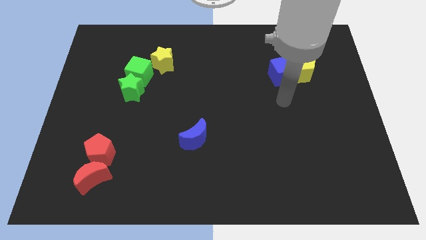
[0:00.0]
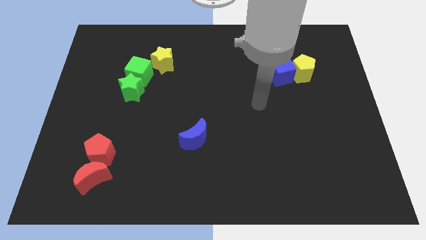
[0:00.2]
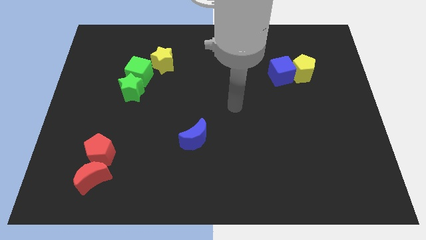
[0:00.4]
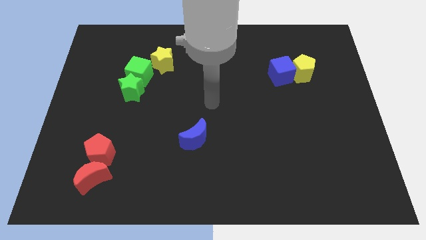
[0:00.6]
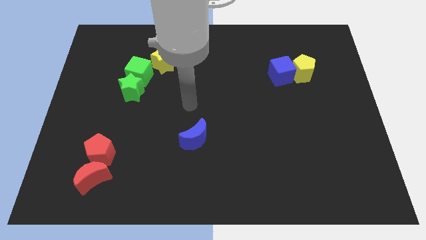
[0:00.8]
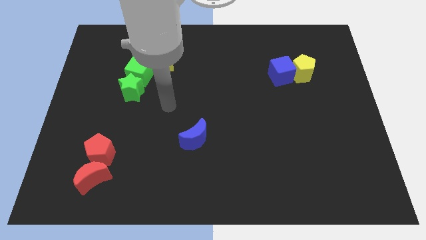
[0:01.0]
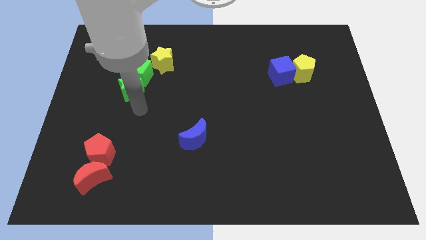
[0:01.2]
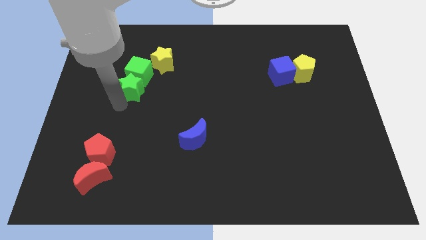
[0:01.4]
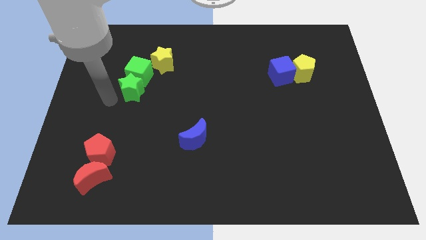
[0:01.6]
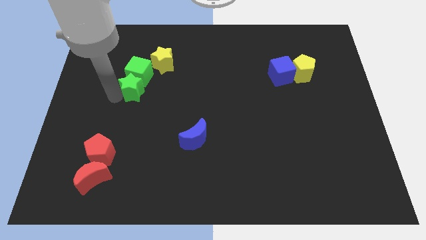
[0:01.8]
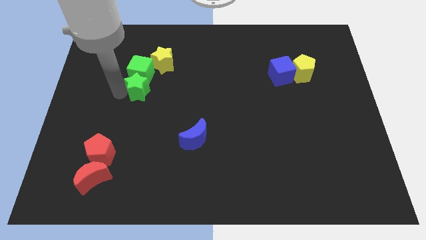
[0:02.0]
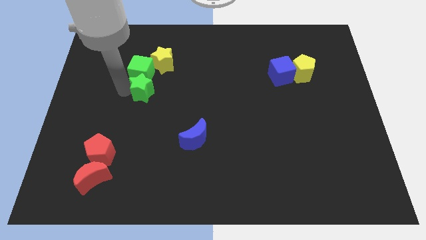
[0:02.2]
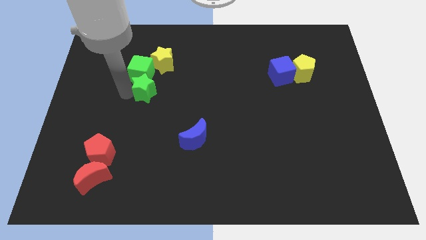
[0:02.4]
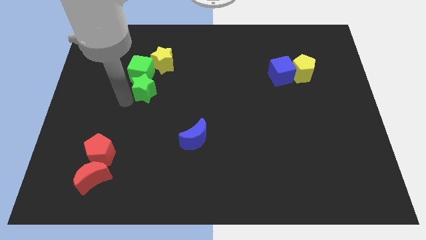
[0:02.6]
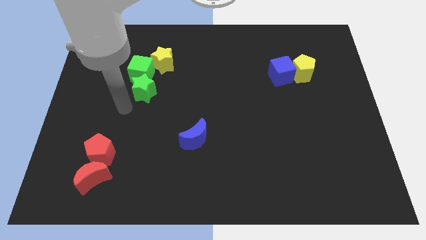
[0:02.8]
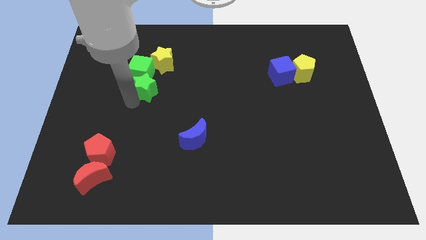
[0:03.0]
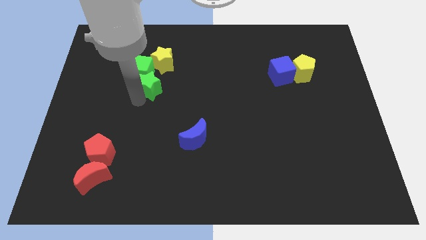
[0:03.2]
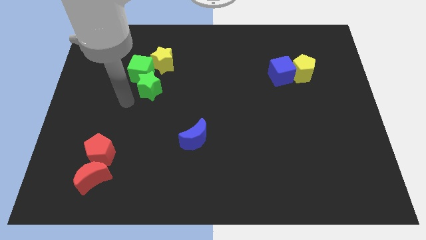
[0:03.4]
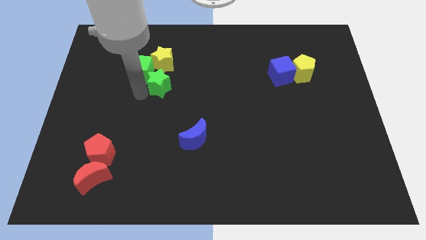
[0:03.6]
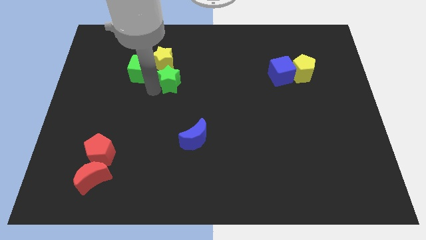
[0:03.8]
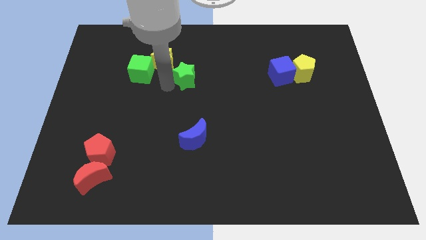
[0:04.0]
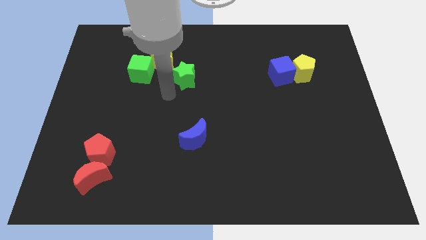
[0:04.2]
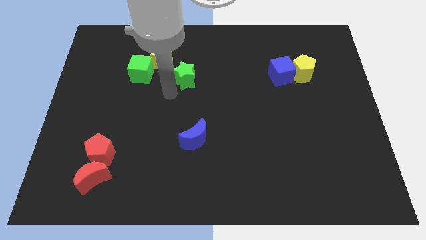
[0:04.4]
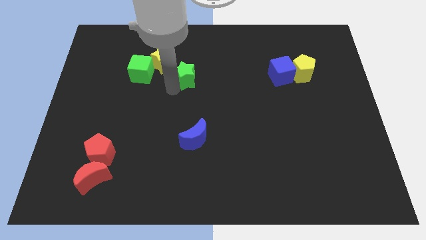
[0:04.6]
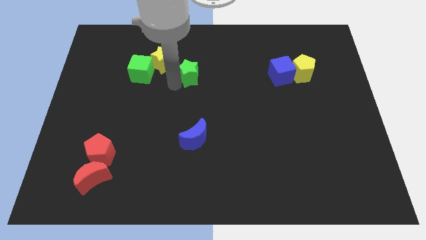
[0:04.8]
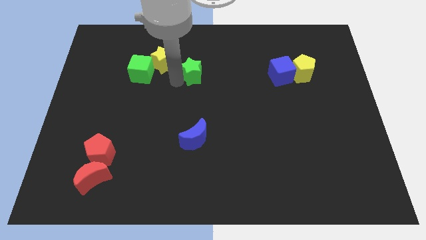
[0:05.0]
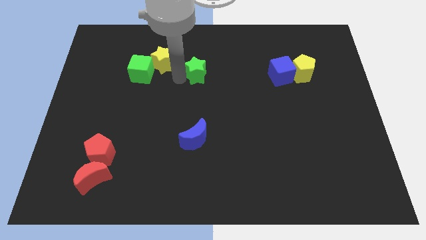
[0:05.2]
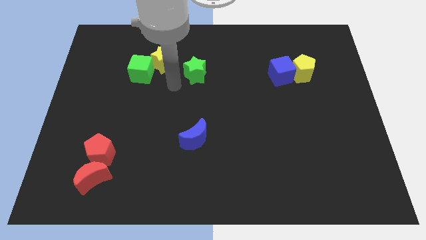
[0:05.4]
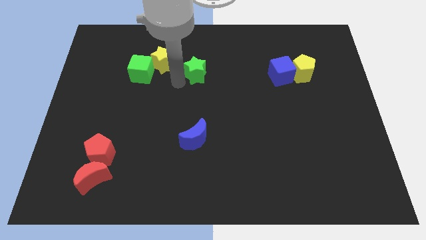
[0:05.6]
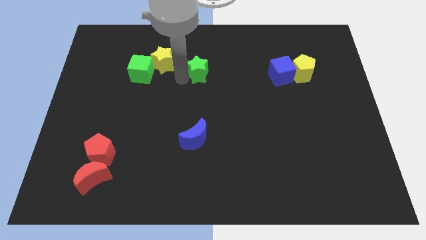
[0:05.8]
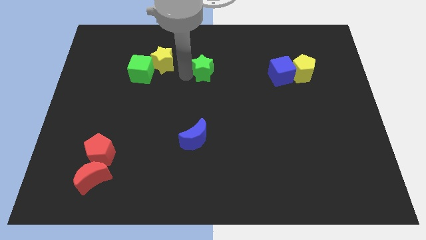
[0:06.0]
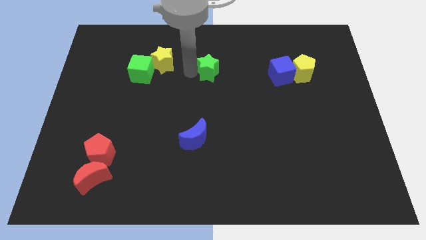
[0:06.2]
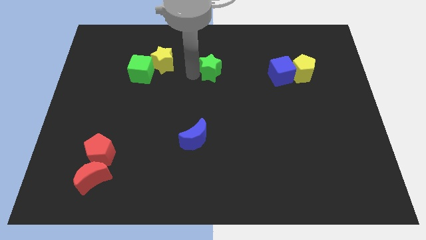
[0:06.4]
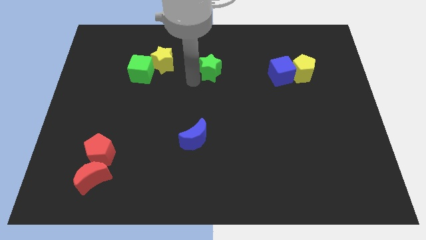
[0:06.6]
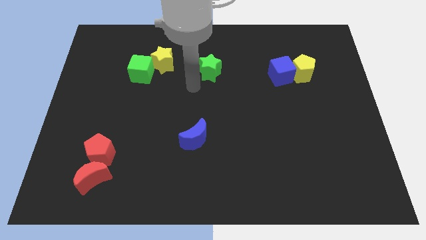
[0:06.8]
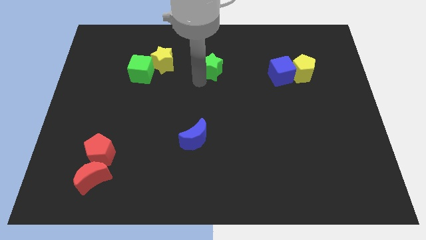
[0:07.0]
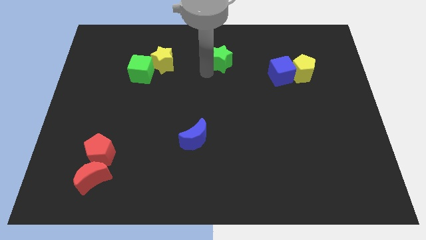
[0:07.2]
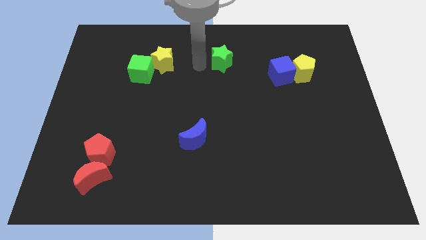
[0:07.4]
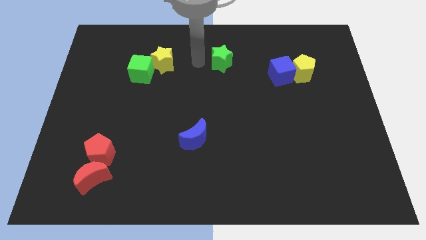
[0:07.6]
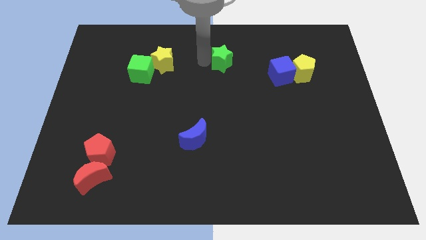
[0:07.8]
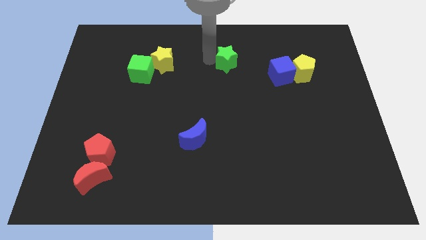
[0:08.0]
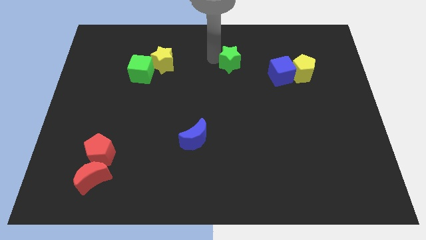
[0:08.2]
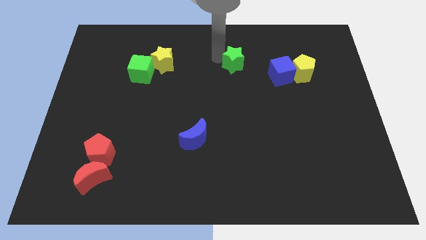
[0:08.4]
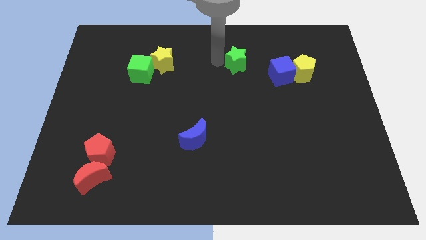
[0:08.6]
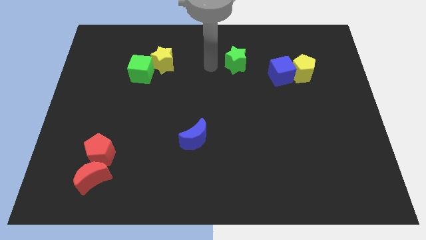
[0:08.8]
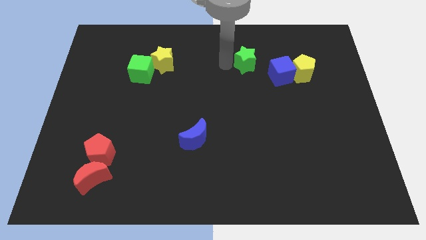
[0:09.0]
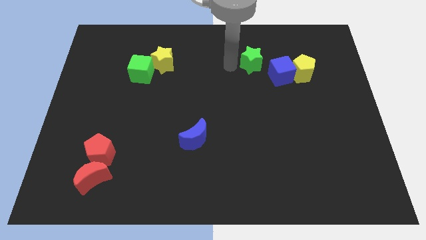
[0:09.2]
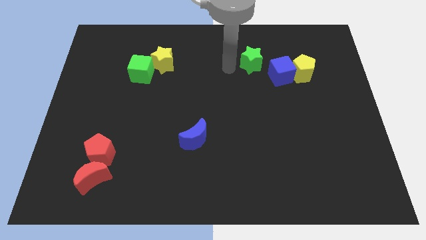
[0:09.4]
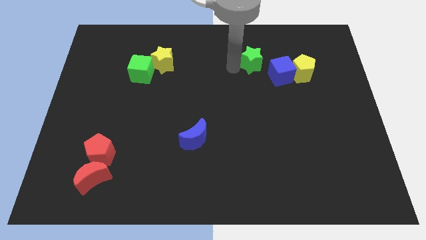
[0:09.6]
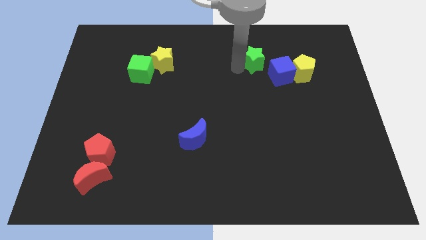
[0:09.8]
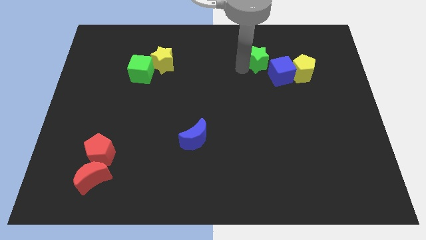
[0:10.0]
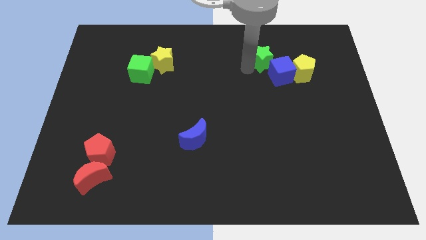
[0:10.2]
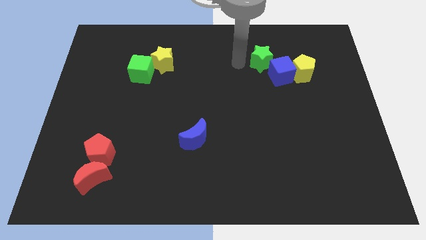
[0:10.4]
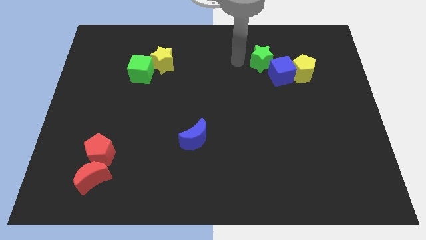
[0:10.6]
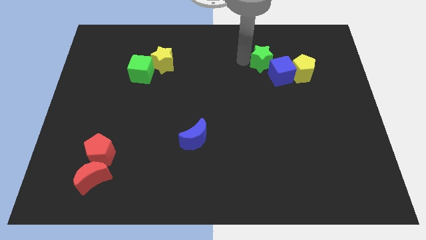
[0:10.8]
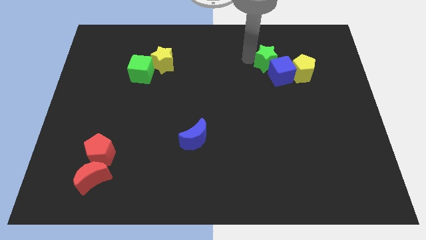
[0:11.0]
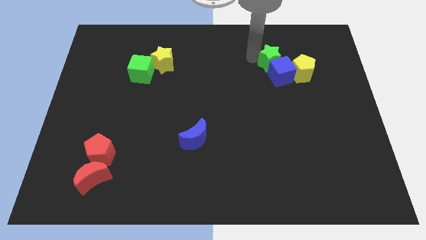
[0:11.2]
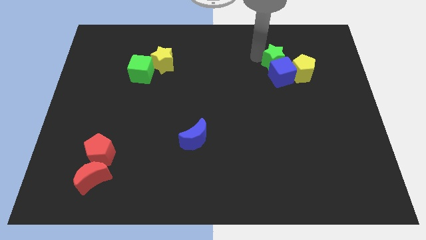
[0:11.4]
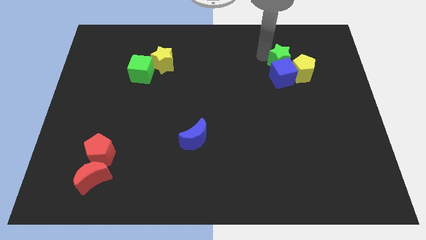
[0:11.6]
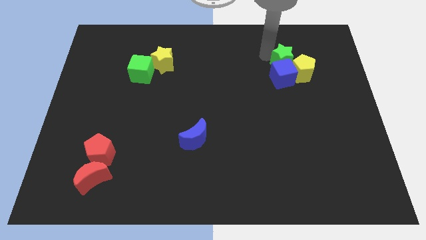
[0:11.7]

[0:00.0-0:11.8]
put the green star towards the yellow pentagon

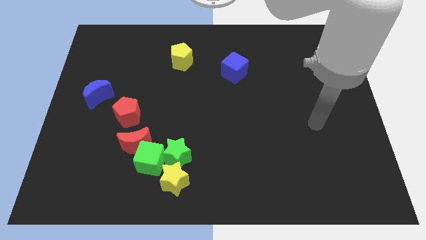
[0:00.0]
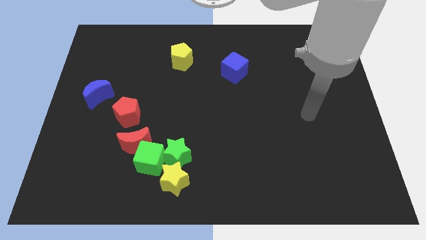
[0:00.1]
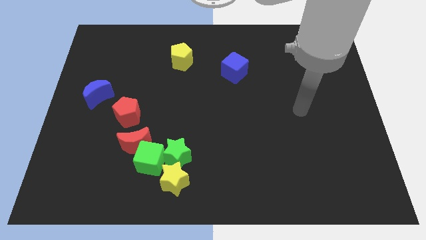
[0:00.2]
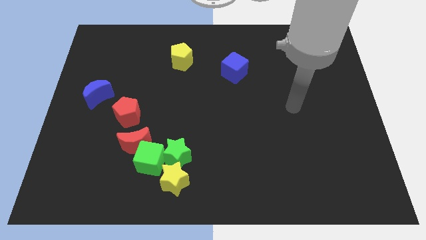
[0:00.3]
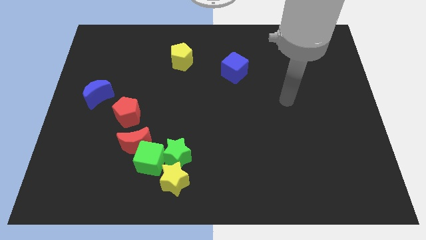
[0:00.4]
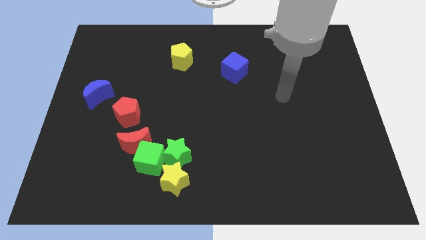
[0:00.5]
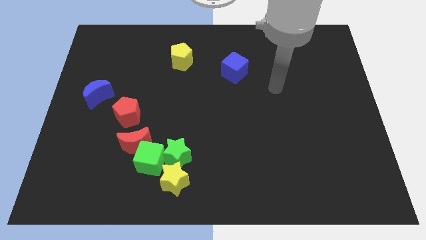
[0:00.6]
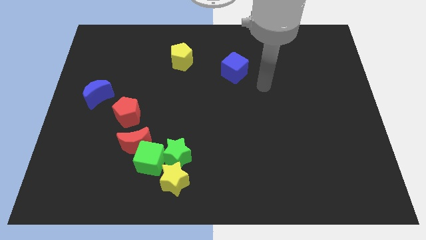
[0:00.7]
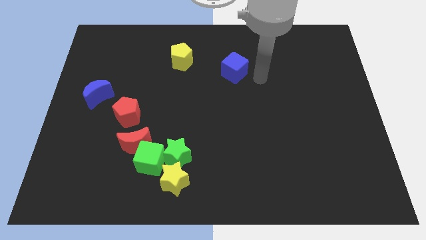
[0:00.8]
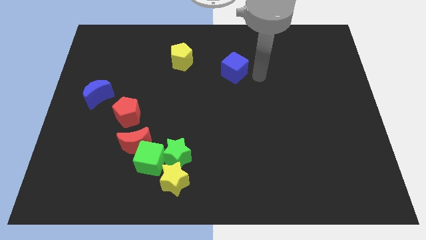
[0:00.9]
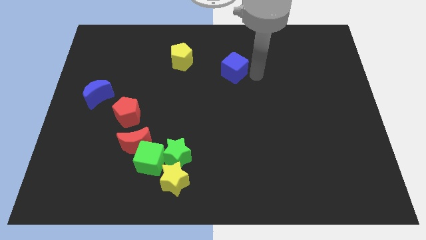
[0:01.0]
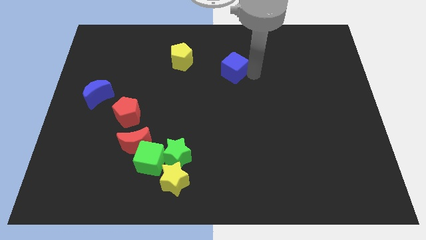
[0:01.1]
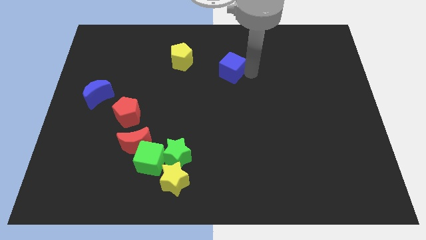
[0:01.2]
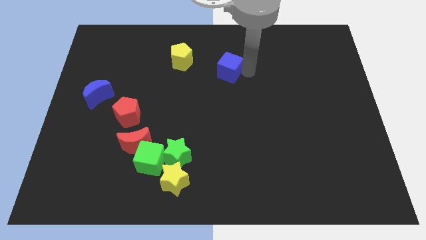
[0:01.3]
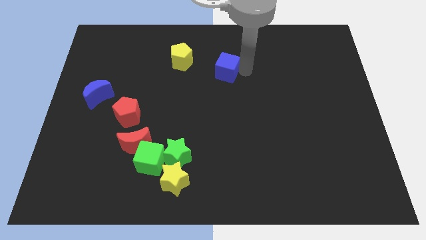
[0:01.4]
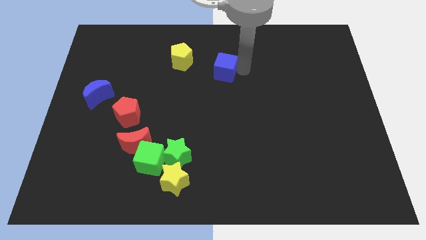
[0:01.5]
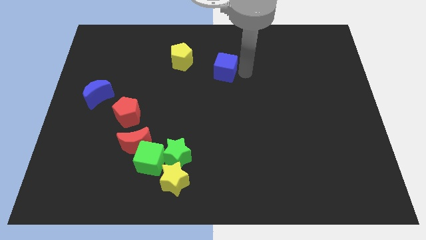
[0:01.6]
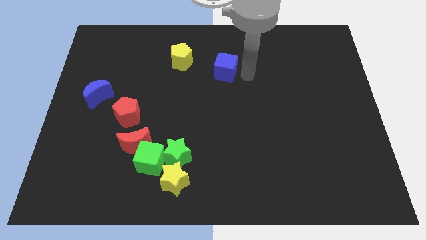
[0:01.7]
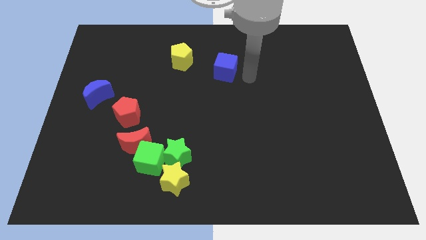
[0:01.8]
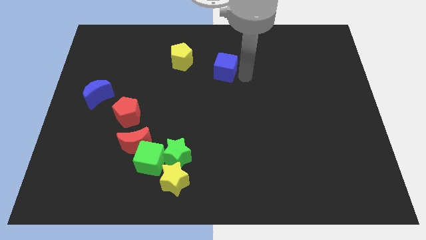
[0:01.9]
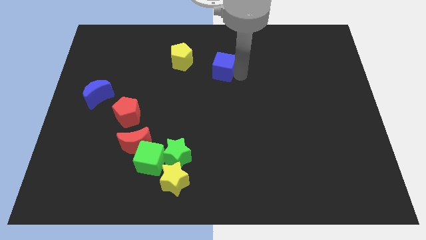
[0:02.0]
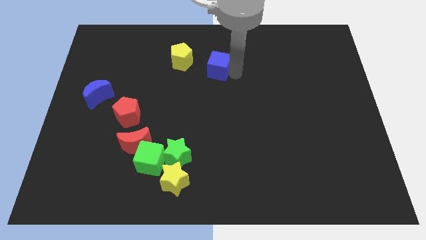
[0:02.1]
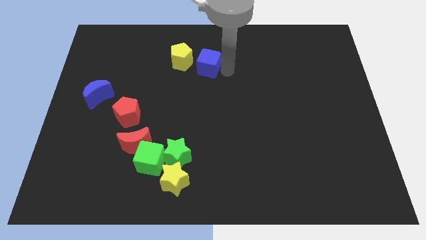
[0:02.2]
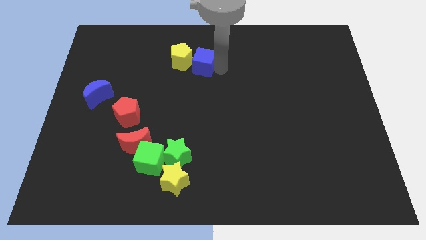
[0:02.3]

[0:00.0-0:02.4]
put the blue cube next to the yellow pentagon
